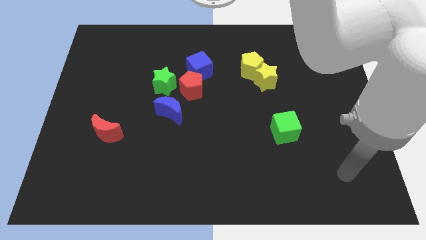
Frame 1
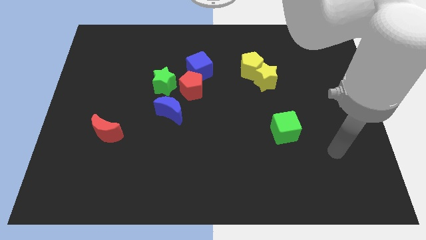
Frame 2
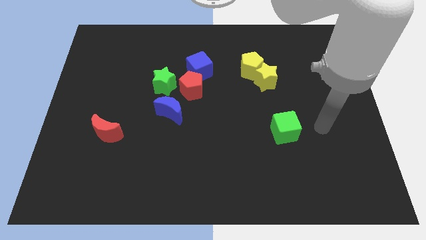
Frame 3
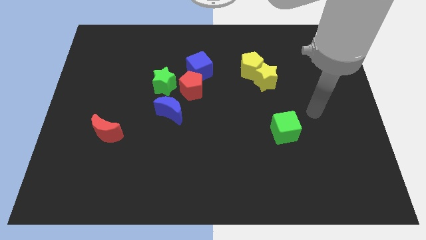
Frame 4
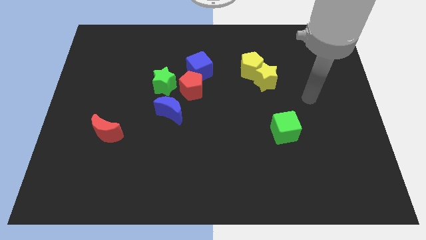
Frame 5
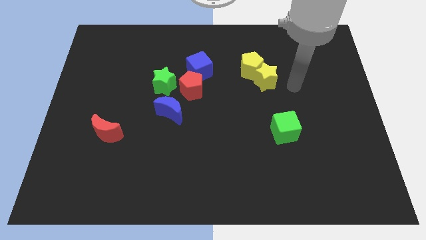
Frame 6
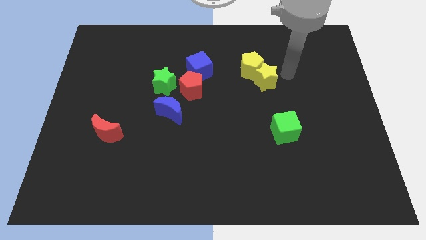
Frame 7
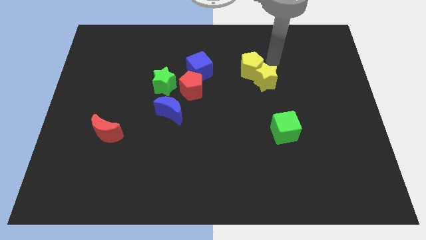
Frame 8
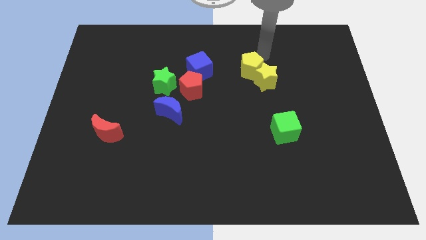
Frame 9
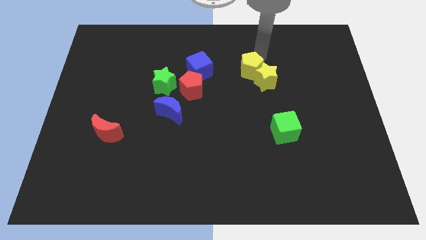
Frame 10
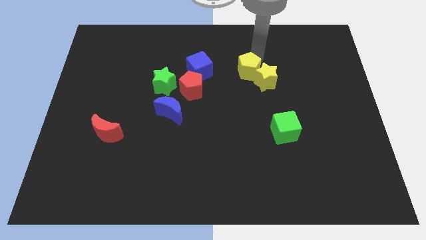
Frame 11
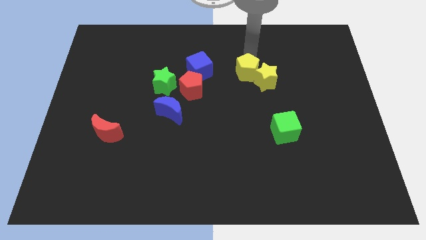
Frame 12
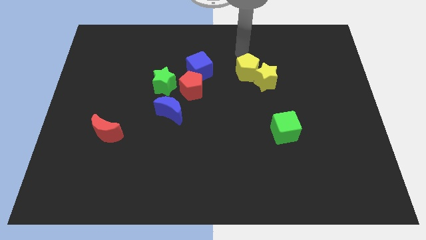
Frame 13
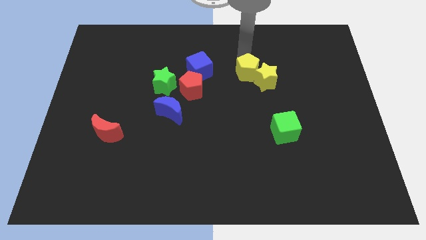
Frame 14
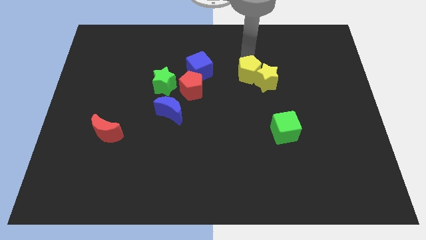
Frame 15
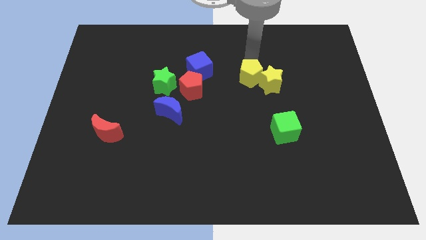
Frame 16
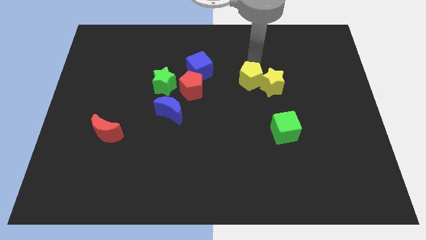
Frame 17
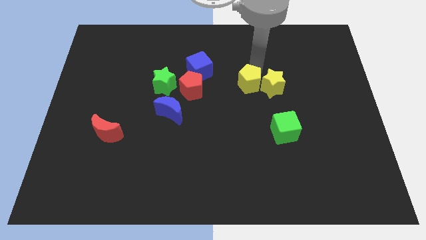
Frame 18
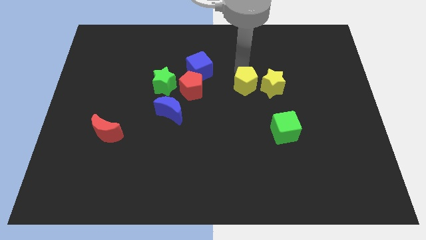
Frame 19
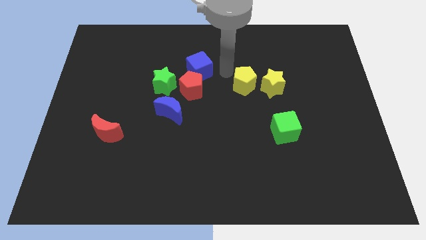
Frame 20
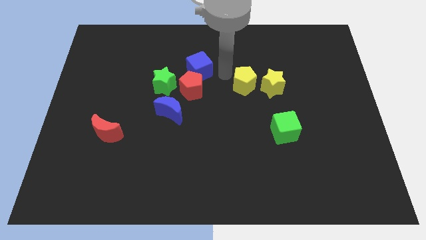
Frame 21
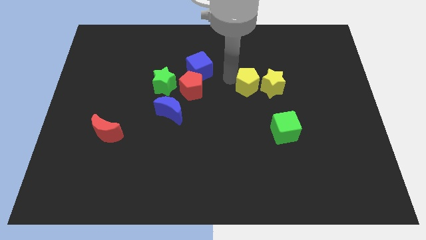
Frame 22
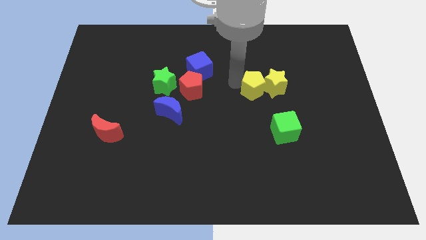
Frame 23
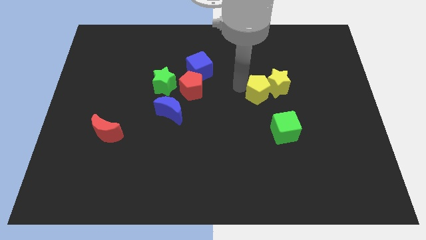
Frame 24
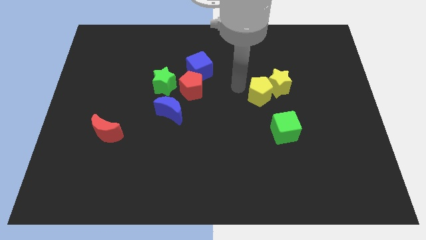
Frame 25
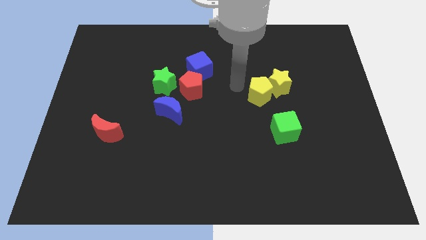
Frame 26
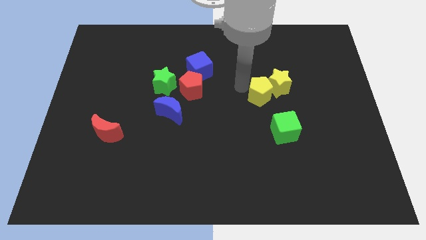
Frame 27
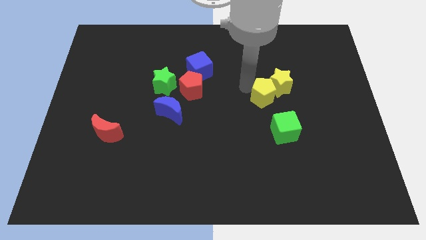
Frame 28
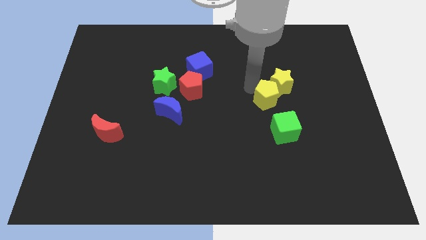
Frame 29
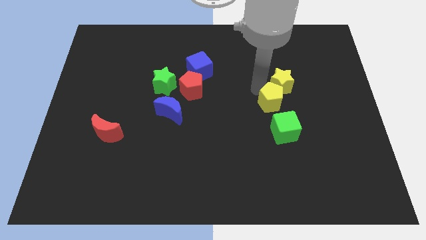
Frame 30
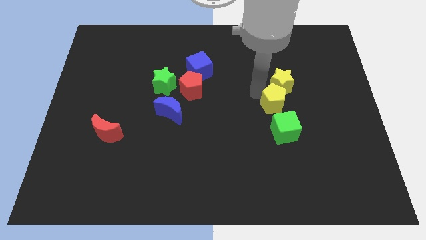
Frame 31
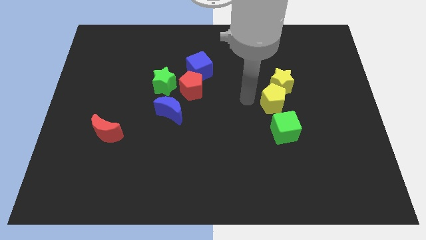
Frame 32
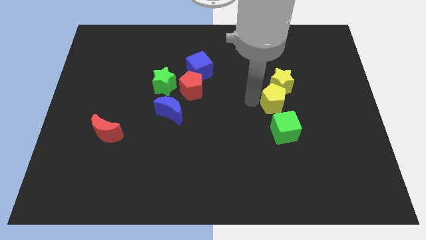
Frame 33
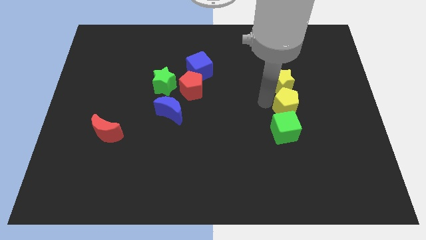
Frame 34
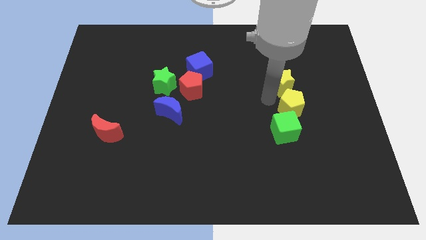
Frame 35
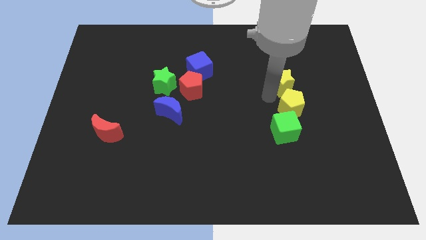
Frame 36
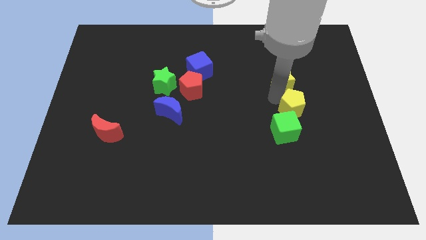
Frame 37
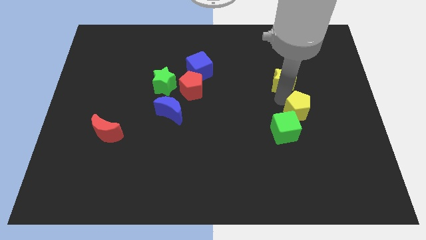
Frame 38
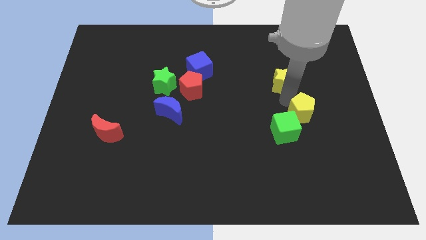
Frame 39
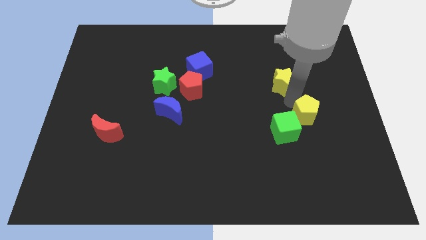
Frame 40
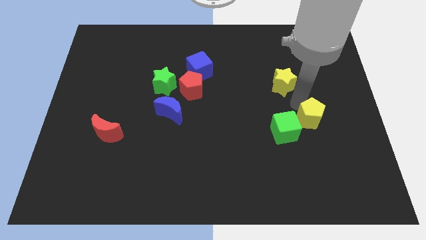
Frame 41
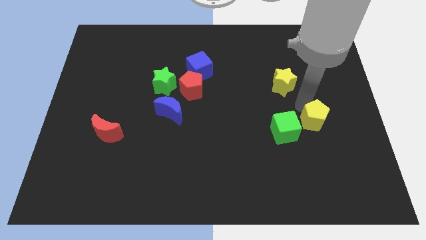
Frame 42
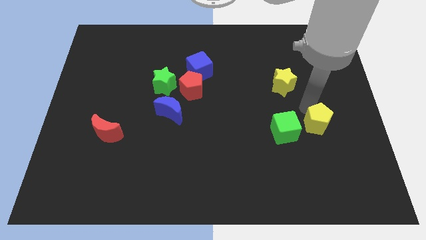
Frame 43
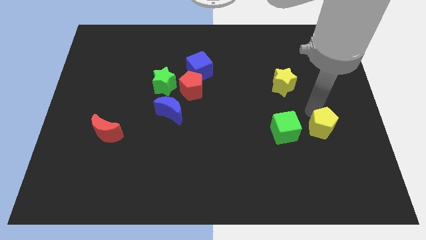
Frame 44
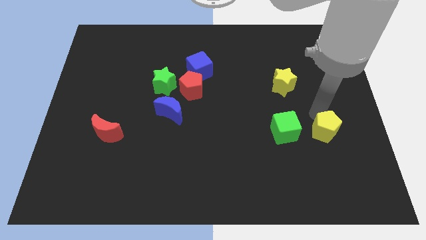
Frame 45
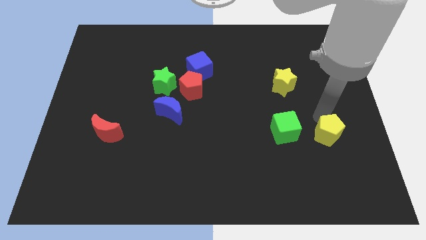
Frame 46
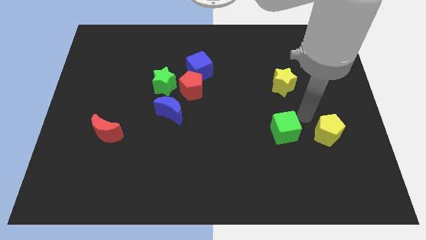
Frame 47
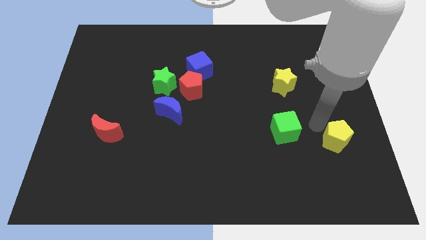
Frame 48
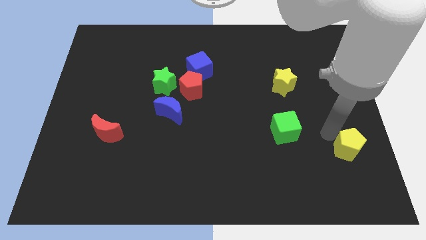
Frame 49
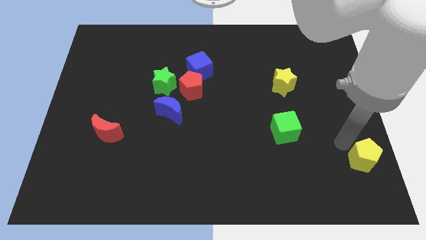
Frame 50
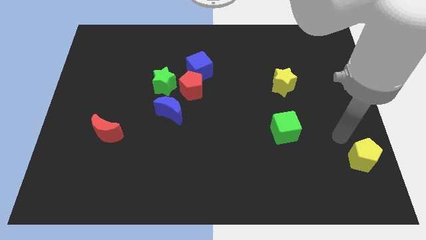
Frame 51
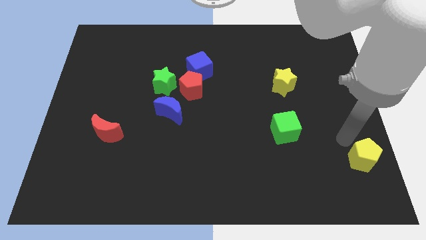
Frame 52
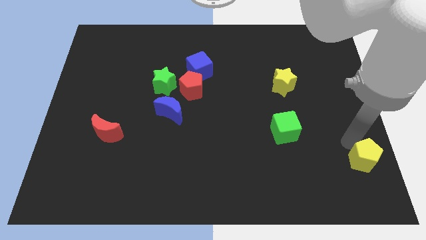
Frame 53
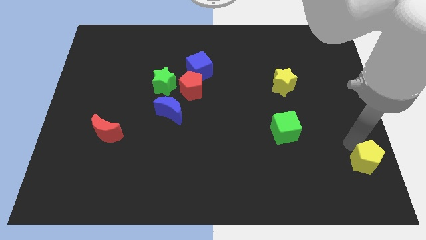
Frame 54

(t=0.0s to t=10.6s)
move the yellow pentagon to the bottom right of the board

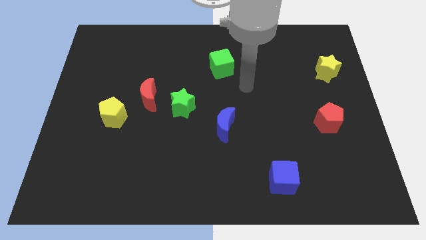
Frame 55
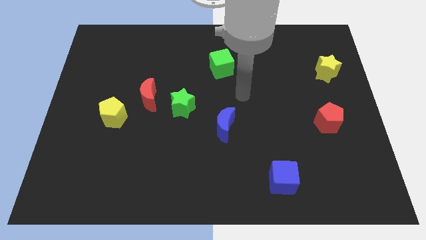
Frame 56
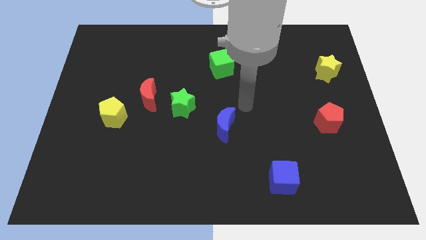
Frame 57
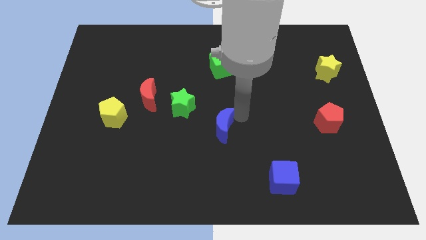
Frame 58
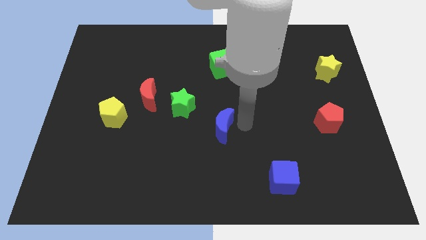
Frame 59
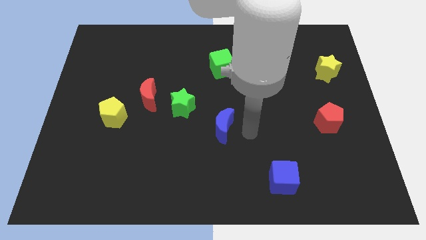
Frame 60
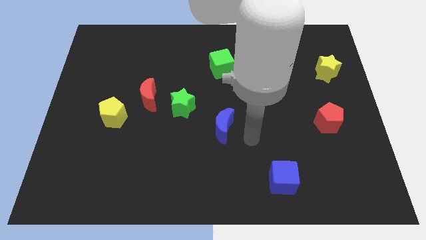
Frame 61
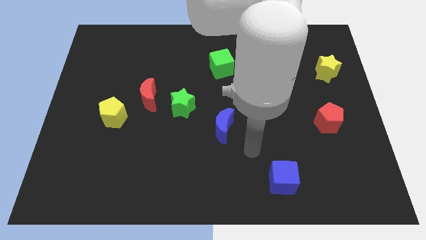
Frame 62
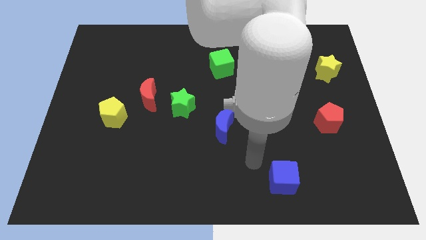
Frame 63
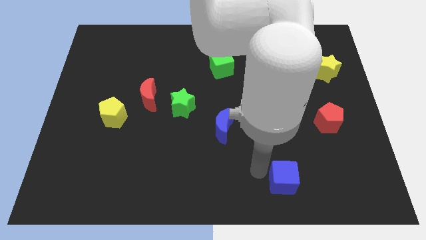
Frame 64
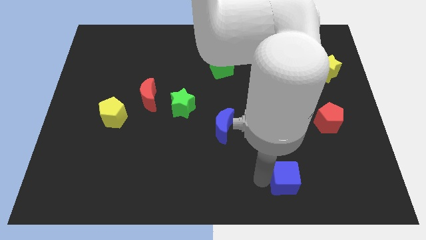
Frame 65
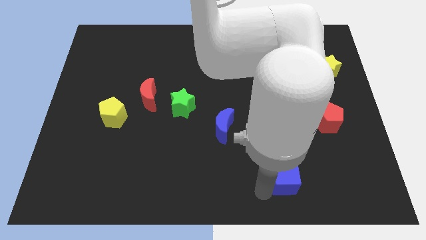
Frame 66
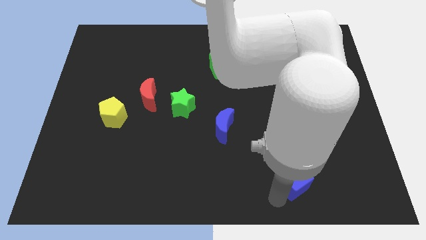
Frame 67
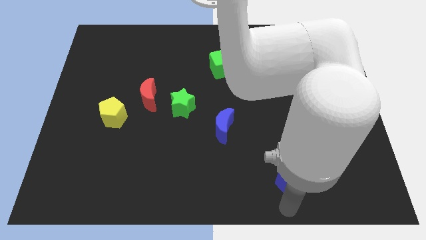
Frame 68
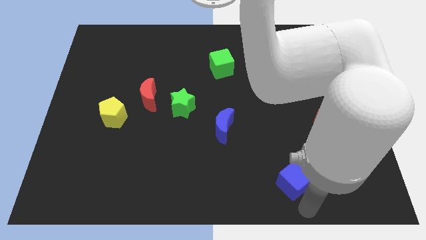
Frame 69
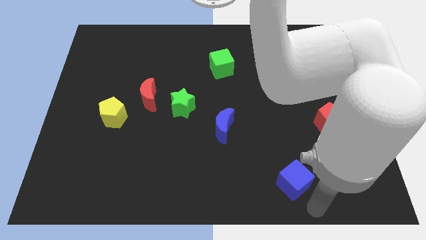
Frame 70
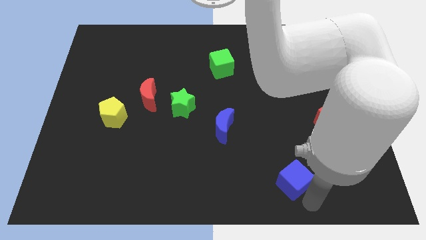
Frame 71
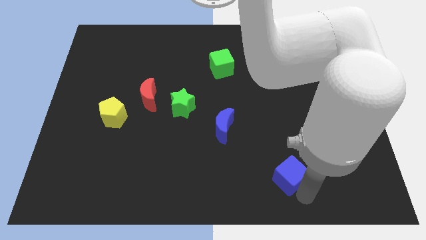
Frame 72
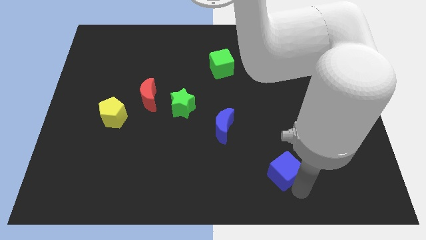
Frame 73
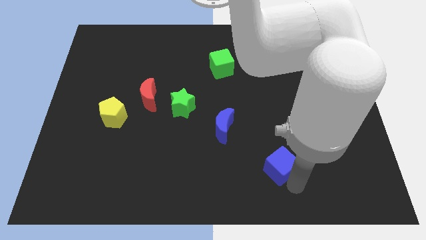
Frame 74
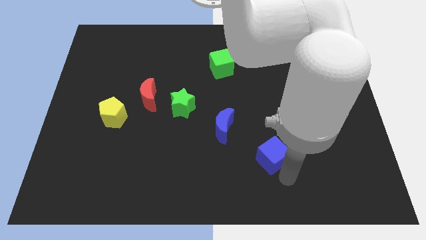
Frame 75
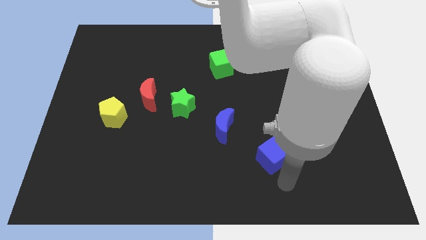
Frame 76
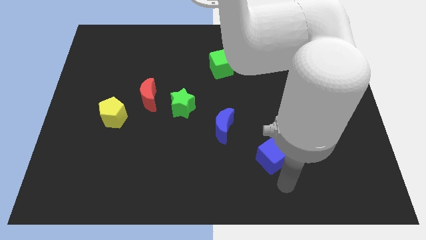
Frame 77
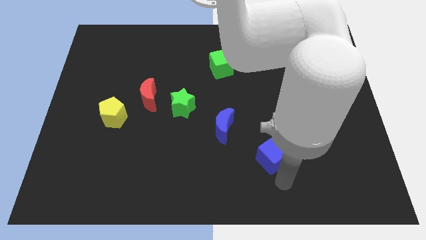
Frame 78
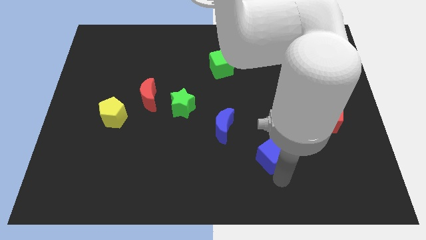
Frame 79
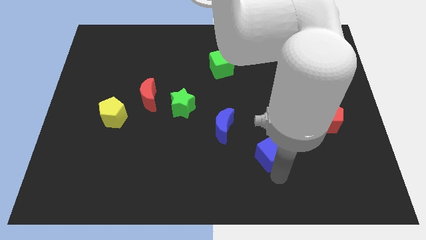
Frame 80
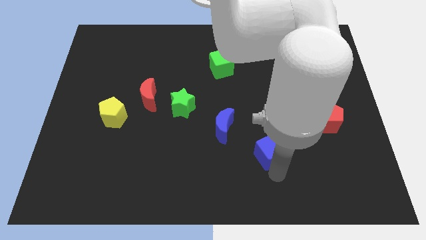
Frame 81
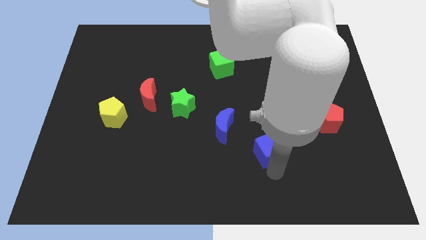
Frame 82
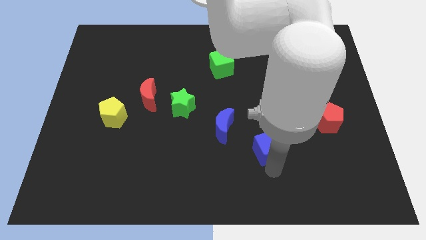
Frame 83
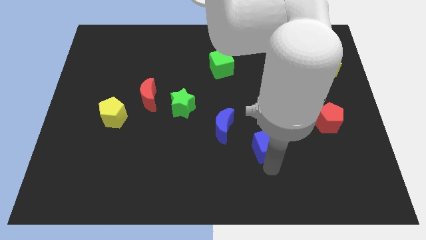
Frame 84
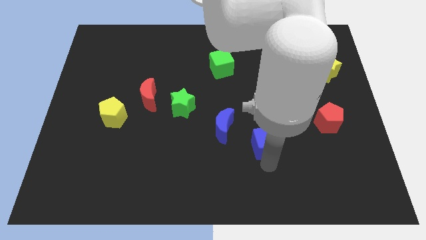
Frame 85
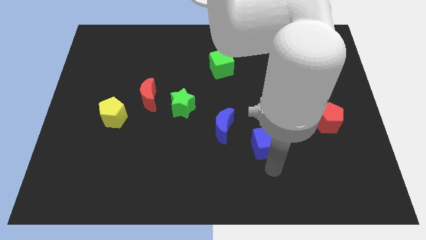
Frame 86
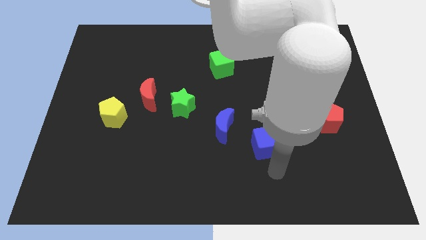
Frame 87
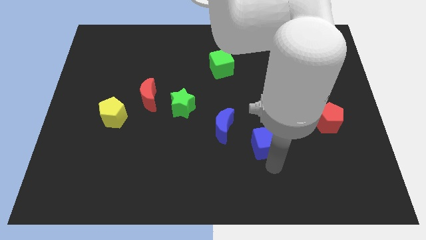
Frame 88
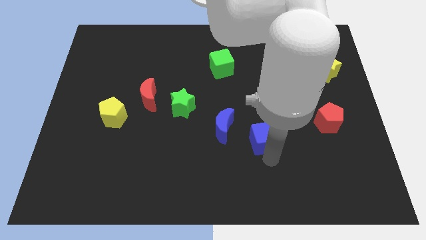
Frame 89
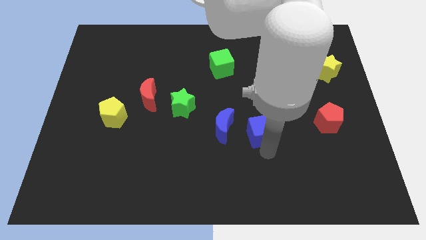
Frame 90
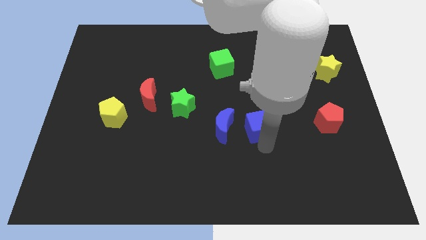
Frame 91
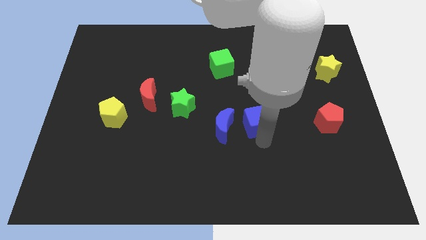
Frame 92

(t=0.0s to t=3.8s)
move the blue cube to the center
